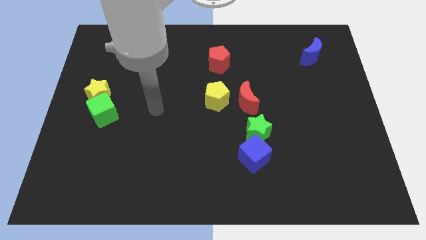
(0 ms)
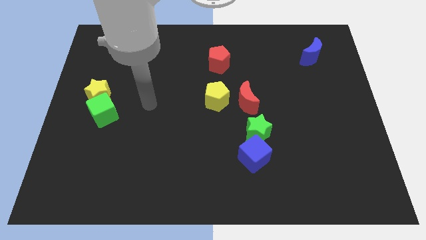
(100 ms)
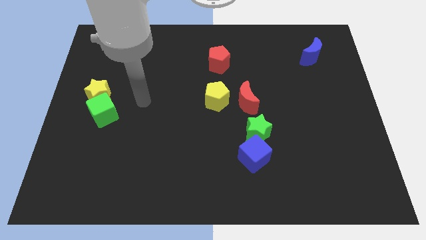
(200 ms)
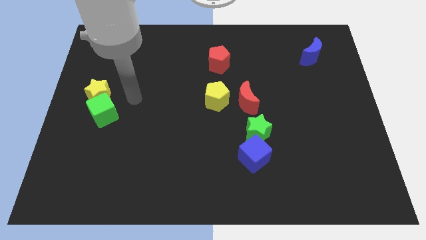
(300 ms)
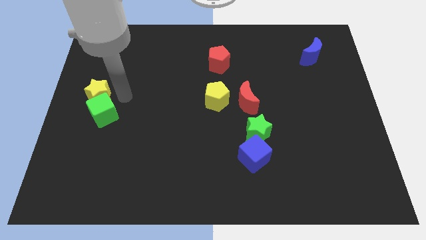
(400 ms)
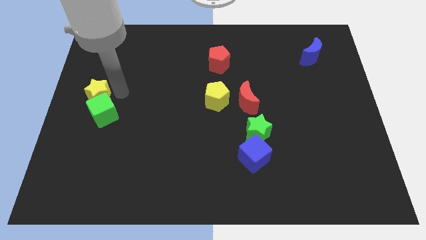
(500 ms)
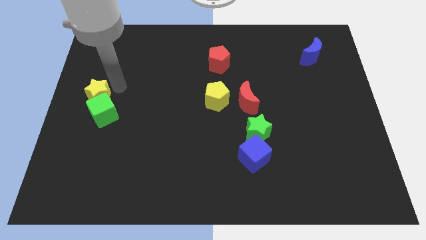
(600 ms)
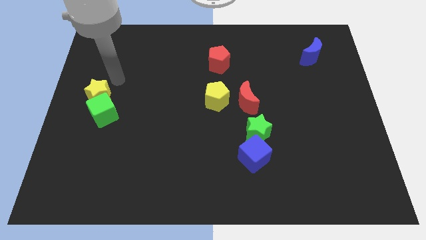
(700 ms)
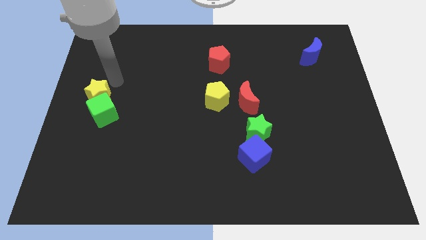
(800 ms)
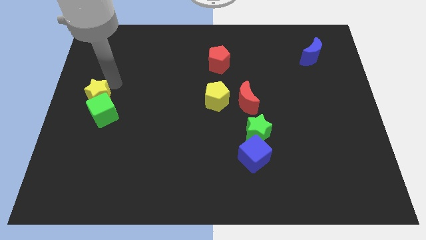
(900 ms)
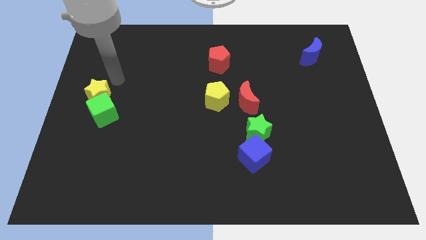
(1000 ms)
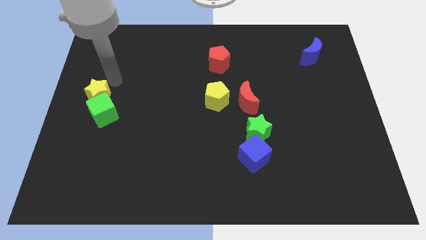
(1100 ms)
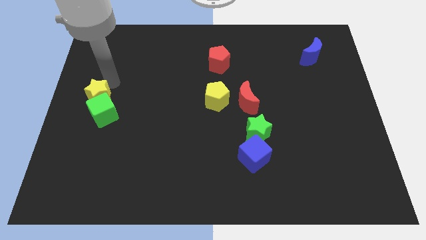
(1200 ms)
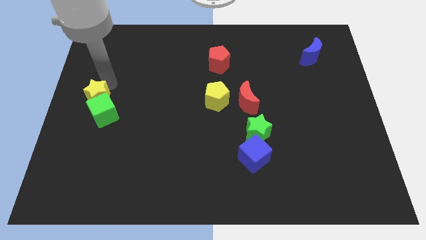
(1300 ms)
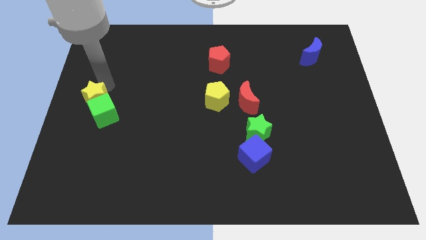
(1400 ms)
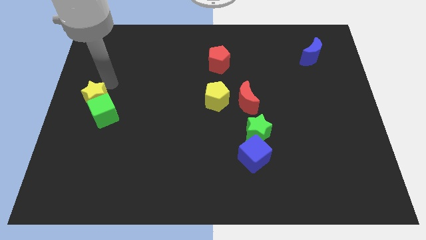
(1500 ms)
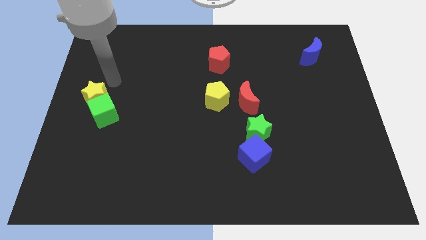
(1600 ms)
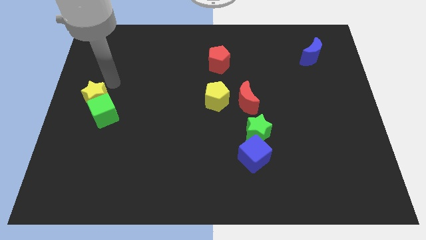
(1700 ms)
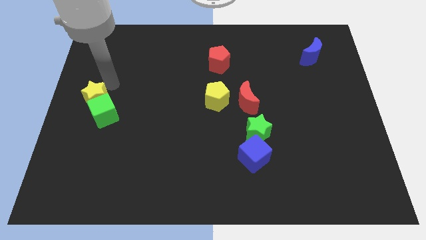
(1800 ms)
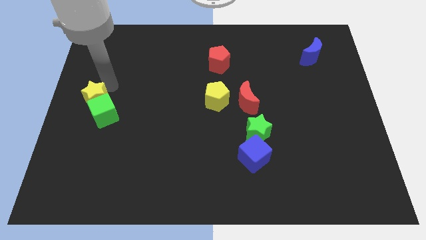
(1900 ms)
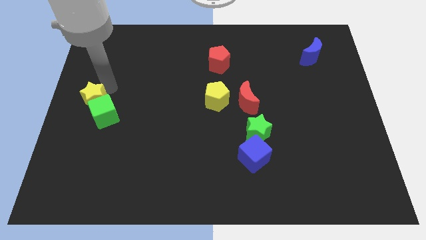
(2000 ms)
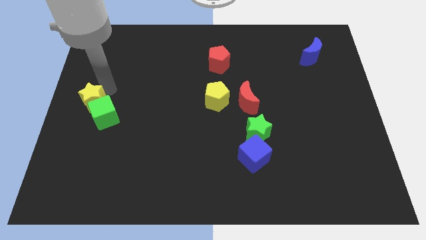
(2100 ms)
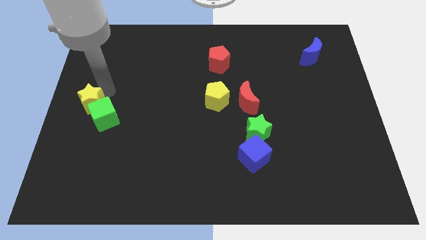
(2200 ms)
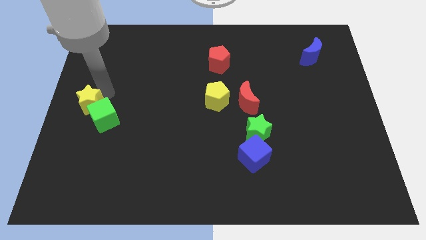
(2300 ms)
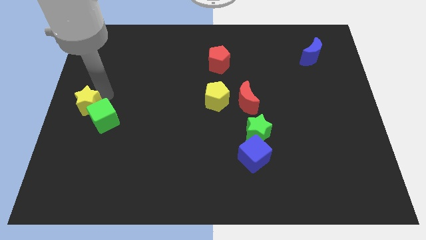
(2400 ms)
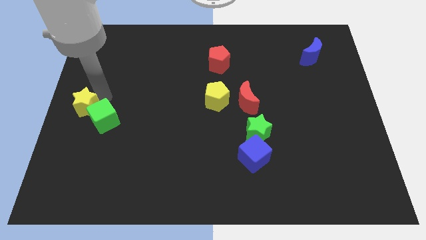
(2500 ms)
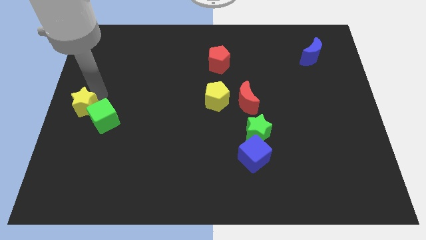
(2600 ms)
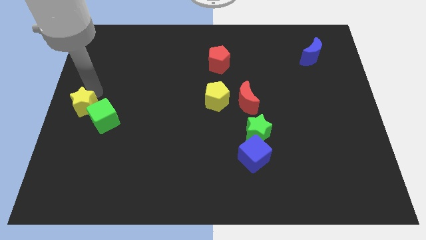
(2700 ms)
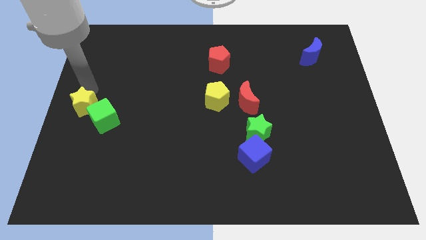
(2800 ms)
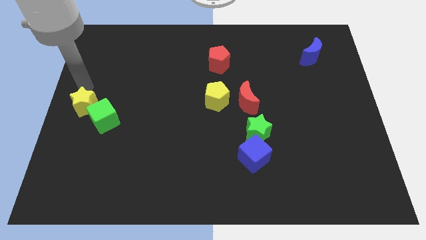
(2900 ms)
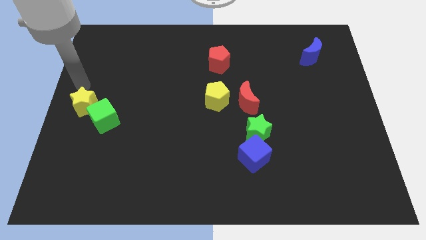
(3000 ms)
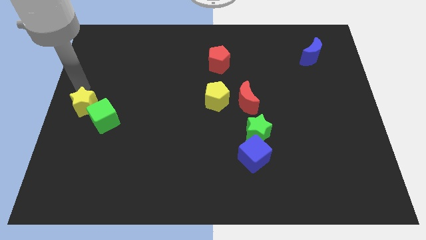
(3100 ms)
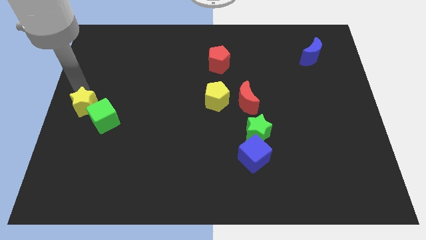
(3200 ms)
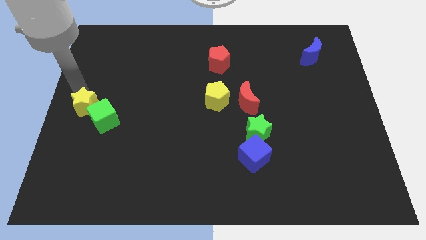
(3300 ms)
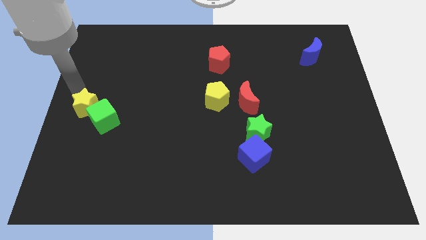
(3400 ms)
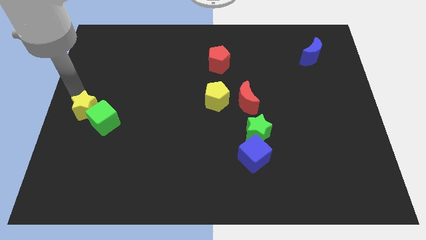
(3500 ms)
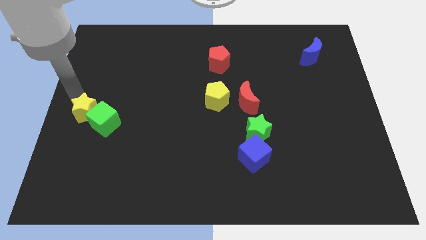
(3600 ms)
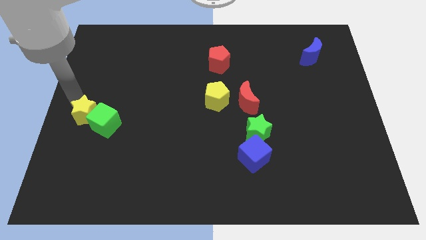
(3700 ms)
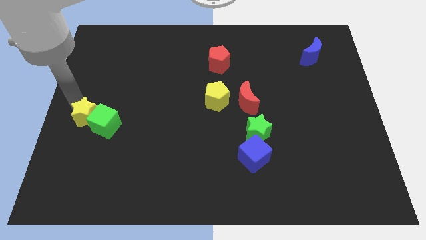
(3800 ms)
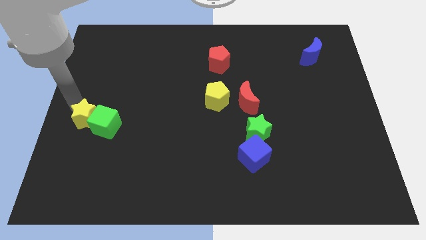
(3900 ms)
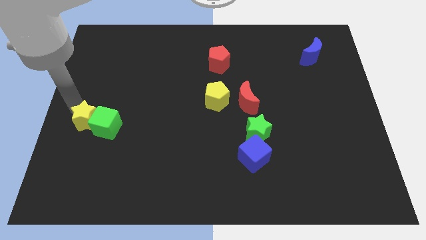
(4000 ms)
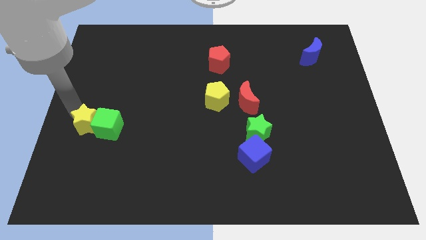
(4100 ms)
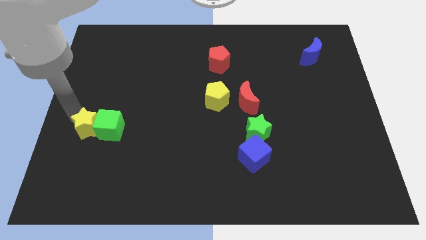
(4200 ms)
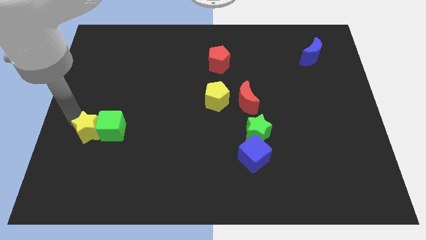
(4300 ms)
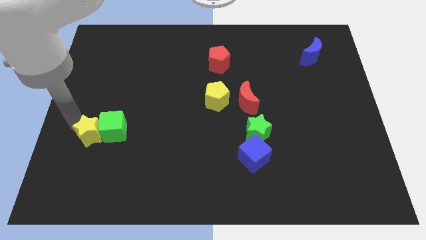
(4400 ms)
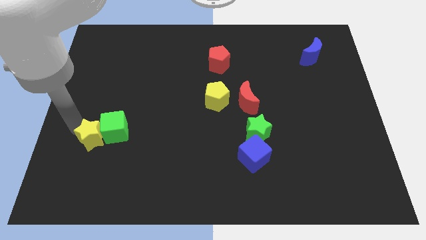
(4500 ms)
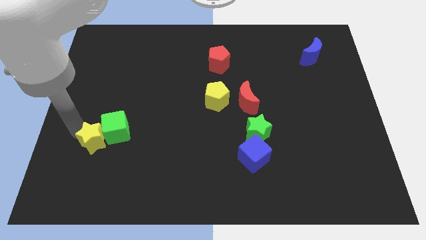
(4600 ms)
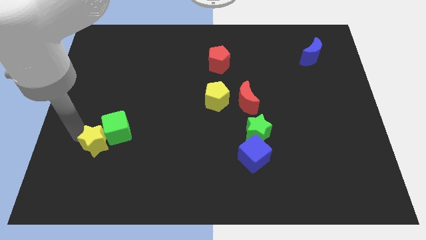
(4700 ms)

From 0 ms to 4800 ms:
slide the yellow star below the green cube

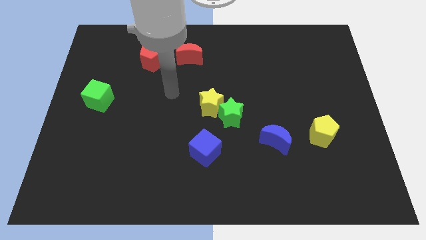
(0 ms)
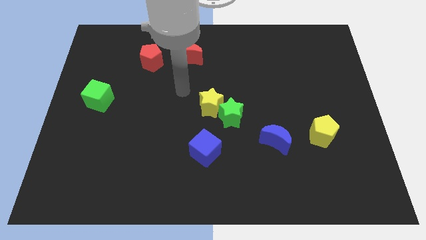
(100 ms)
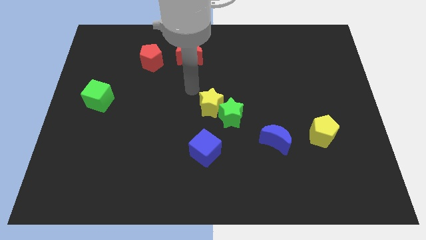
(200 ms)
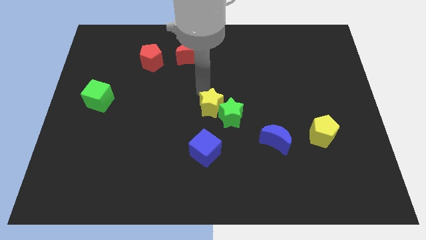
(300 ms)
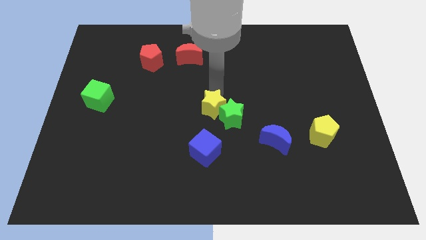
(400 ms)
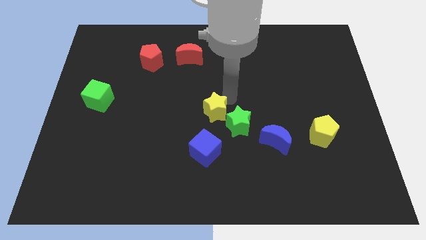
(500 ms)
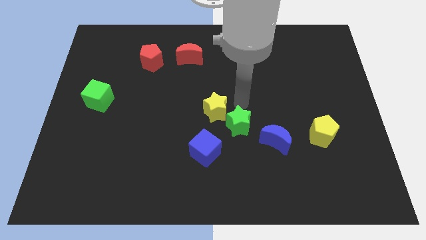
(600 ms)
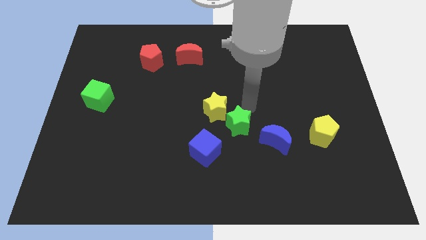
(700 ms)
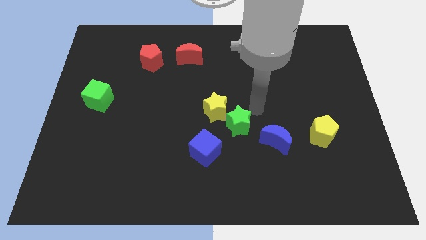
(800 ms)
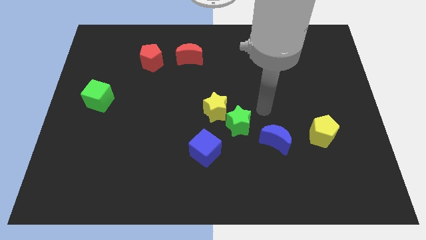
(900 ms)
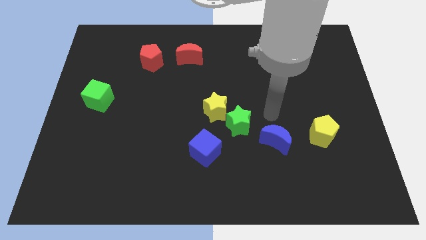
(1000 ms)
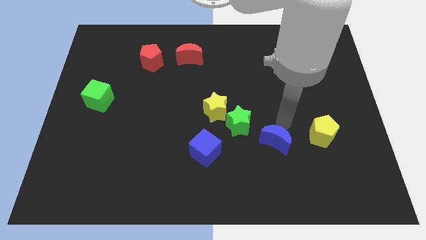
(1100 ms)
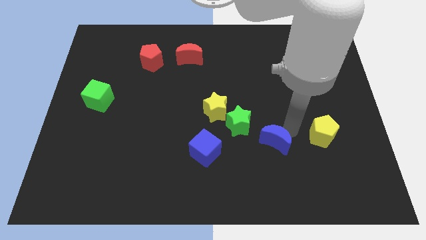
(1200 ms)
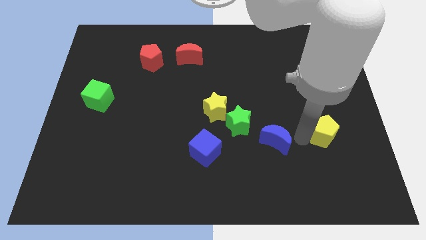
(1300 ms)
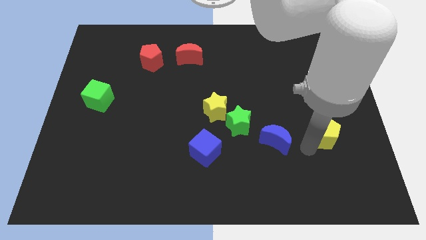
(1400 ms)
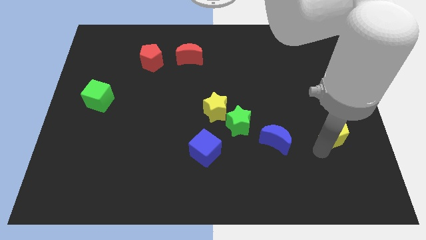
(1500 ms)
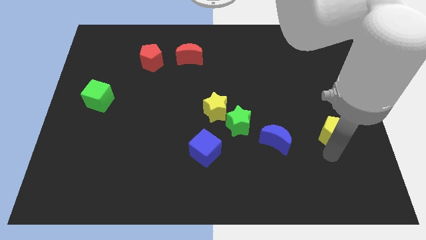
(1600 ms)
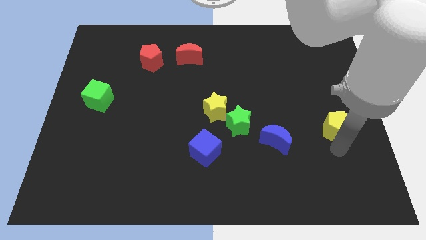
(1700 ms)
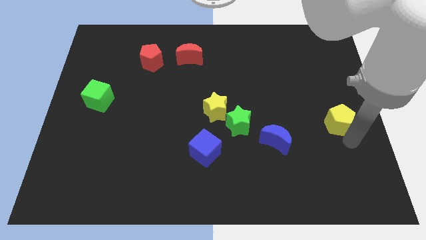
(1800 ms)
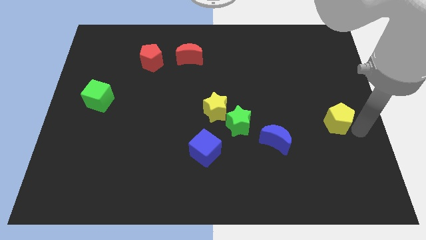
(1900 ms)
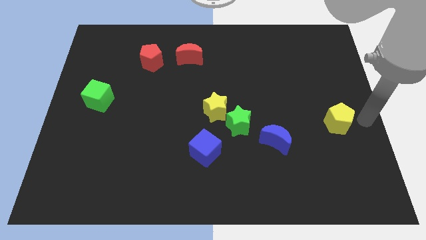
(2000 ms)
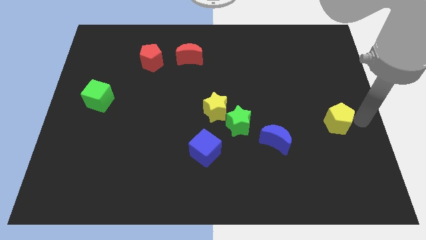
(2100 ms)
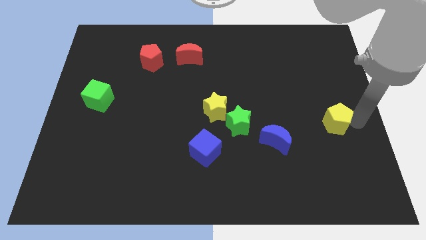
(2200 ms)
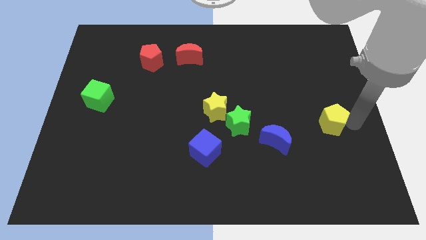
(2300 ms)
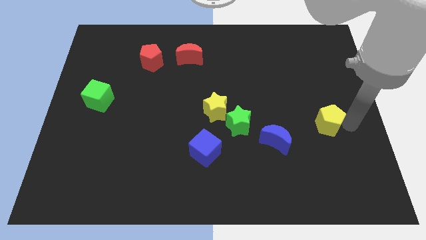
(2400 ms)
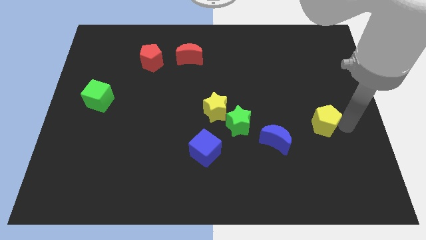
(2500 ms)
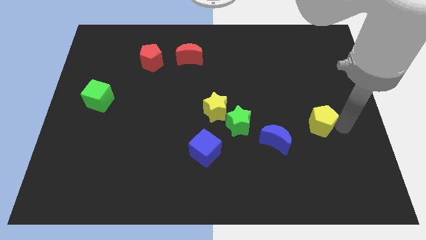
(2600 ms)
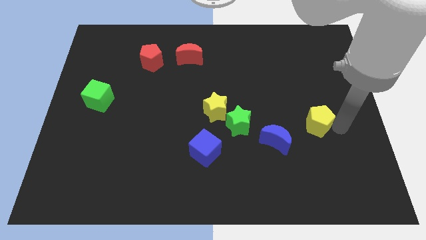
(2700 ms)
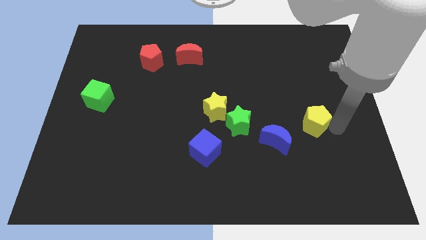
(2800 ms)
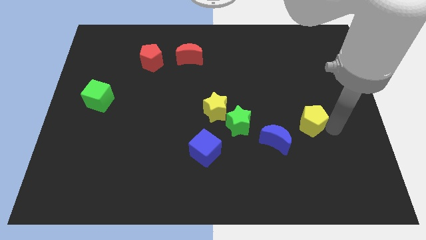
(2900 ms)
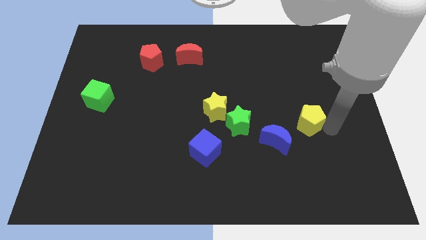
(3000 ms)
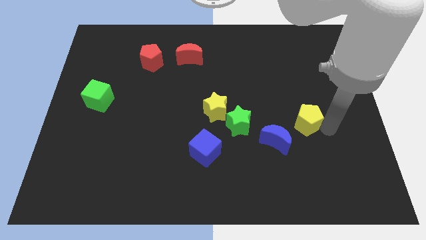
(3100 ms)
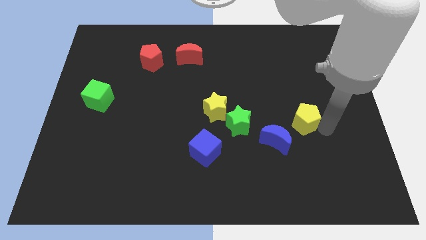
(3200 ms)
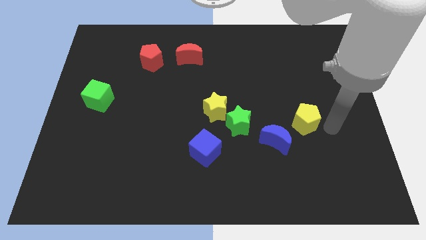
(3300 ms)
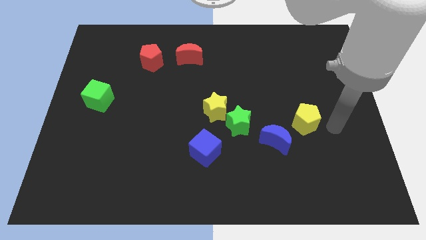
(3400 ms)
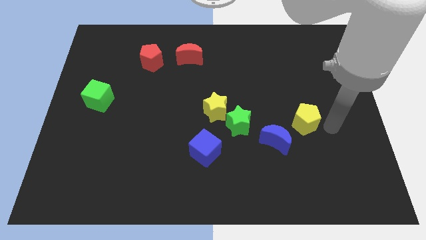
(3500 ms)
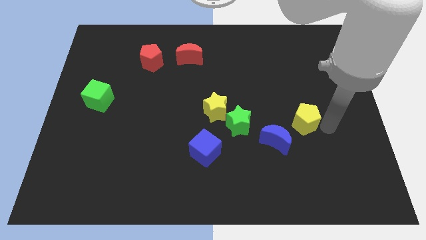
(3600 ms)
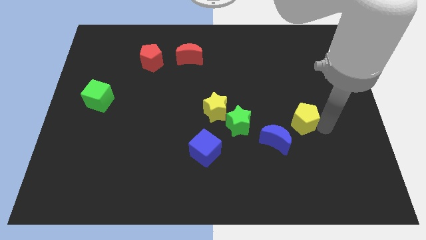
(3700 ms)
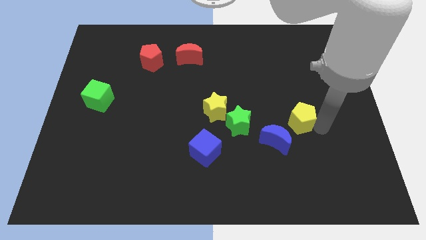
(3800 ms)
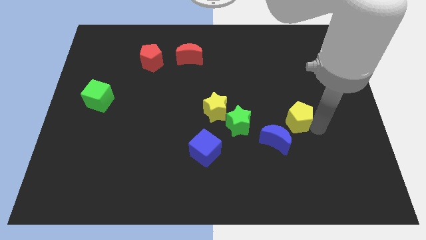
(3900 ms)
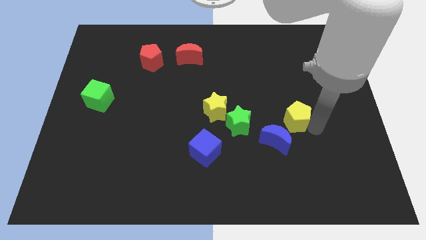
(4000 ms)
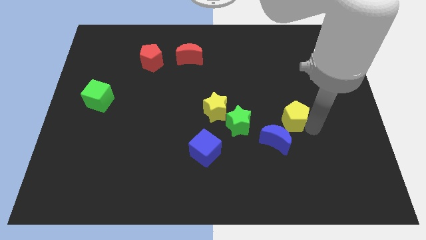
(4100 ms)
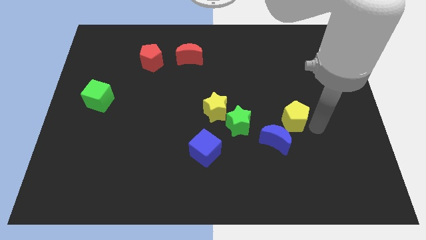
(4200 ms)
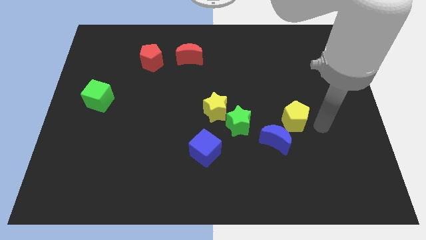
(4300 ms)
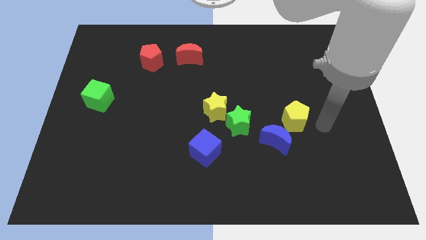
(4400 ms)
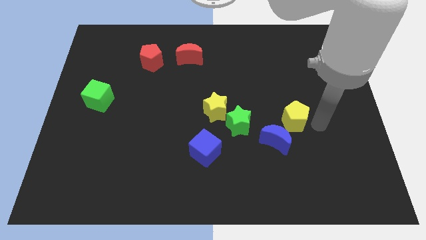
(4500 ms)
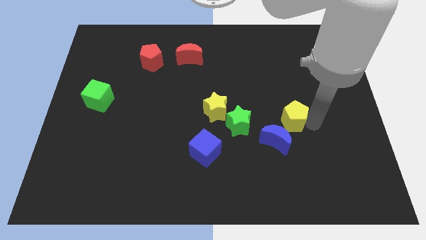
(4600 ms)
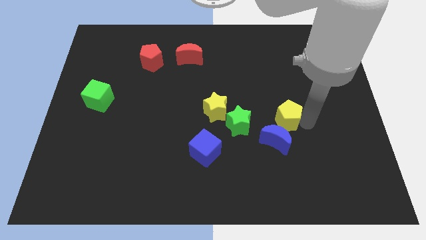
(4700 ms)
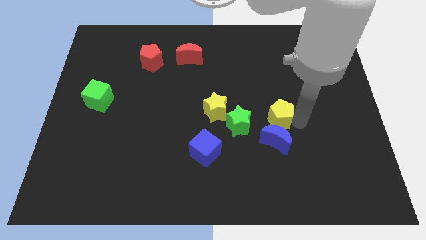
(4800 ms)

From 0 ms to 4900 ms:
push the yellow pentagon to the right side of the yellow star
